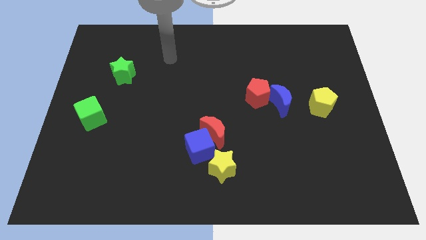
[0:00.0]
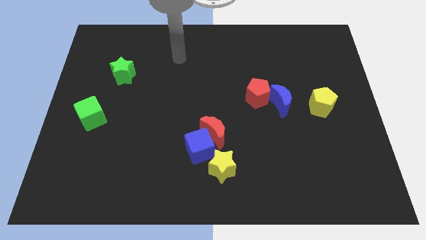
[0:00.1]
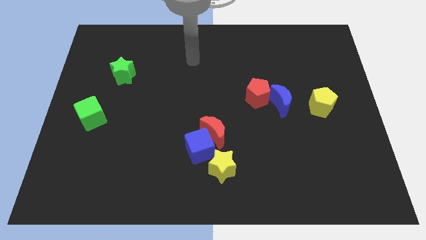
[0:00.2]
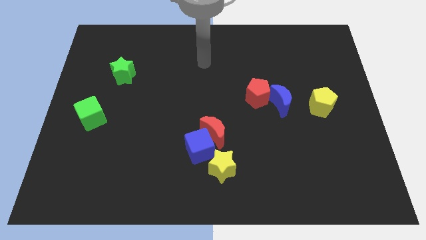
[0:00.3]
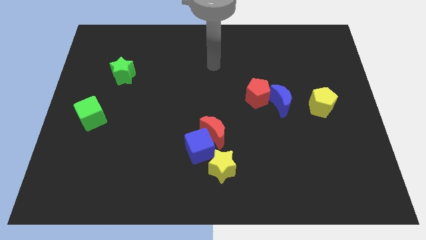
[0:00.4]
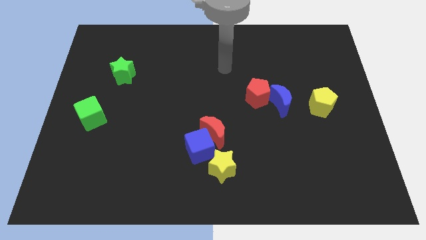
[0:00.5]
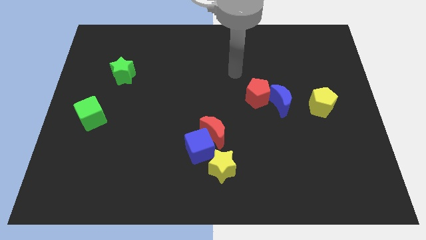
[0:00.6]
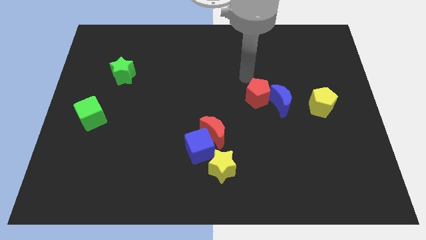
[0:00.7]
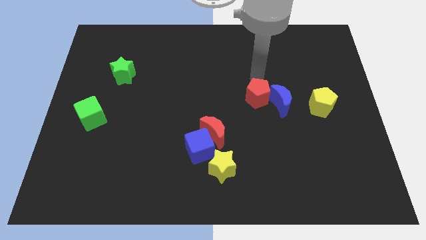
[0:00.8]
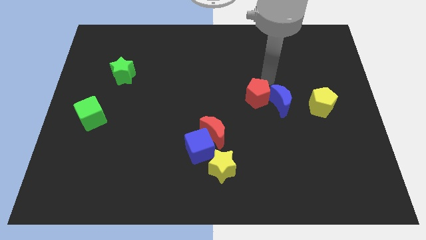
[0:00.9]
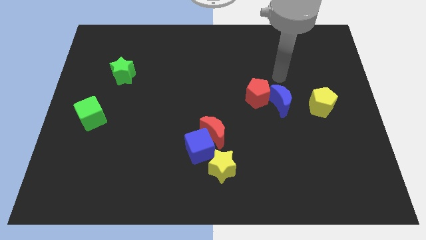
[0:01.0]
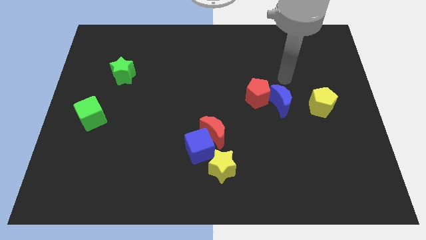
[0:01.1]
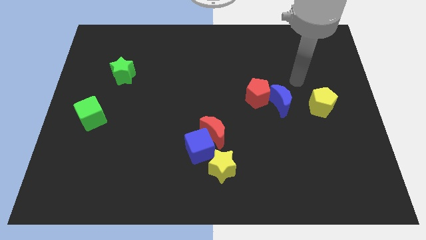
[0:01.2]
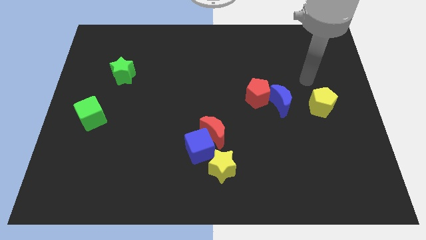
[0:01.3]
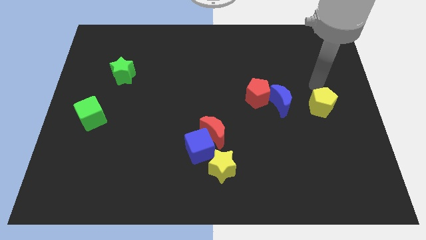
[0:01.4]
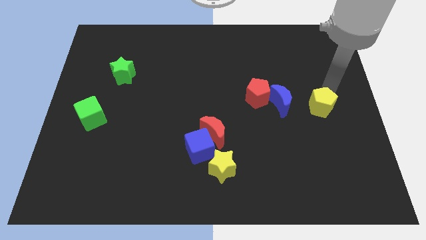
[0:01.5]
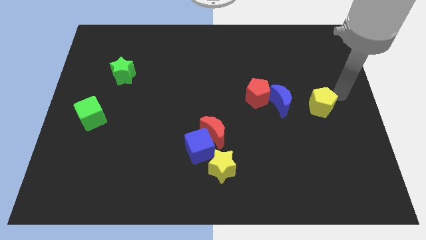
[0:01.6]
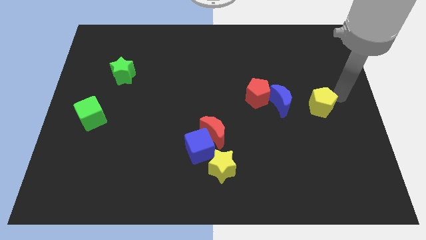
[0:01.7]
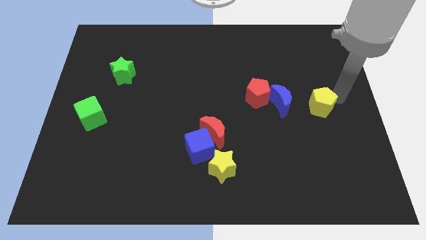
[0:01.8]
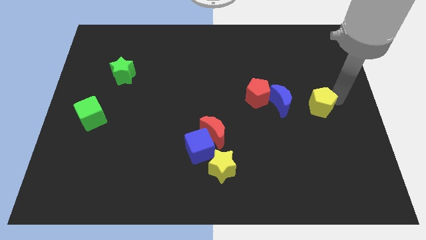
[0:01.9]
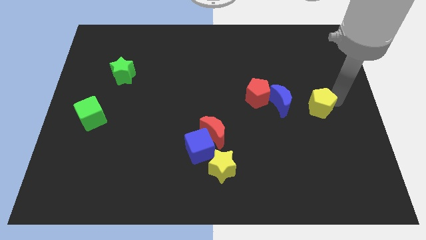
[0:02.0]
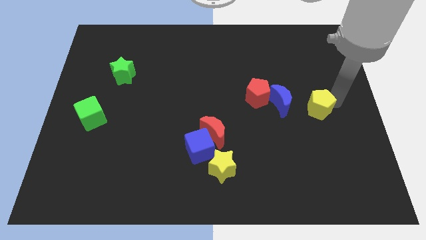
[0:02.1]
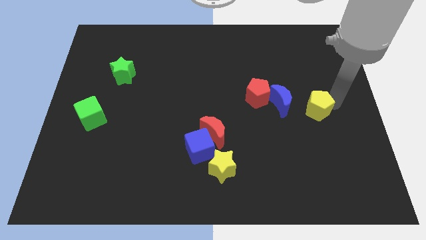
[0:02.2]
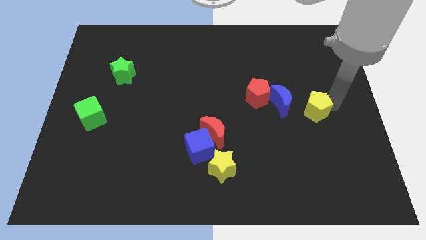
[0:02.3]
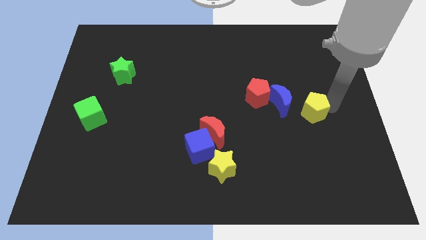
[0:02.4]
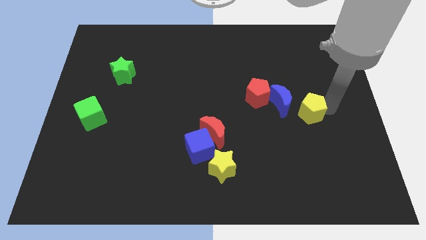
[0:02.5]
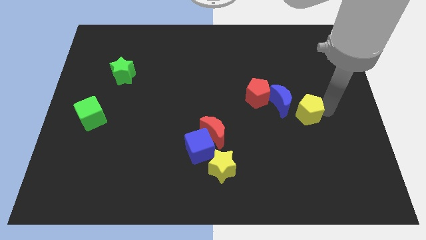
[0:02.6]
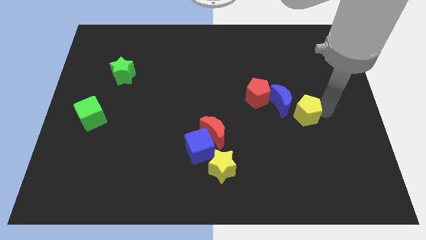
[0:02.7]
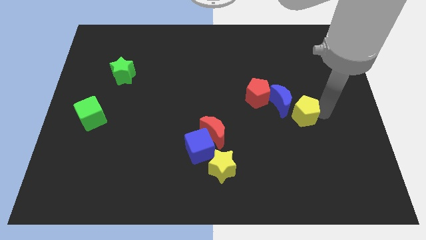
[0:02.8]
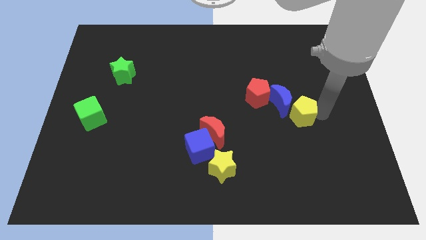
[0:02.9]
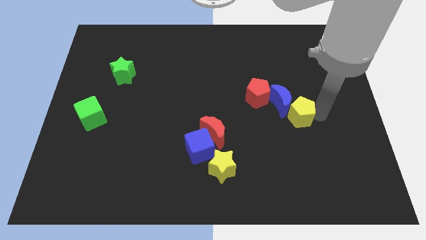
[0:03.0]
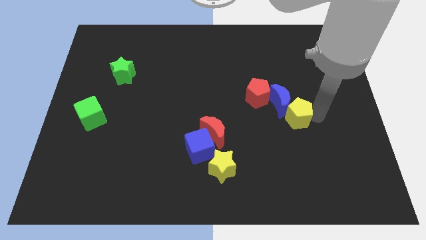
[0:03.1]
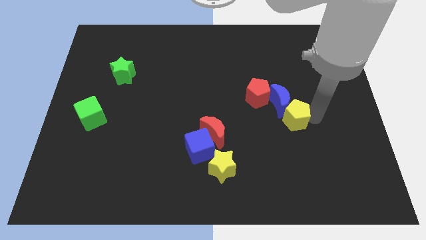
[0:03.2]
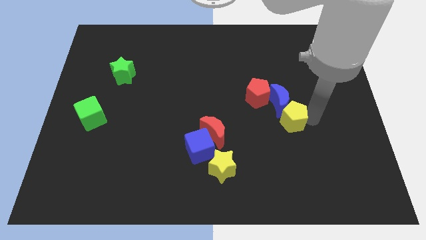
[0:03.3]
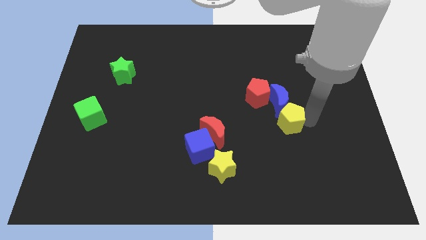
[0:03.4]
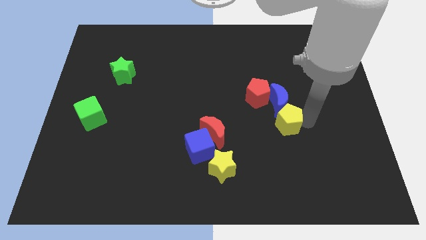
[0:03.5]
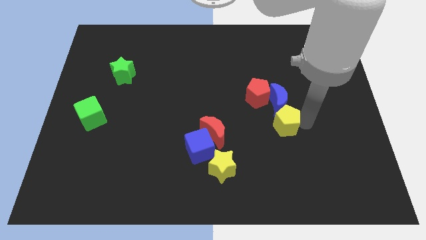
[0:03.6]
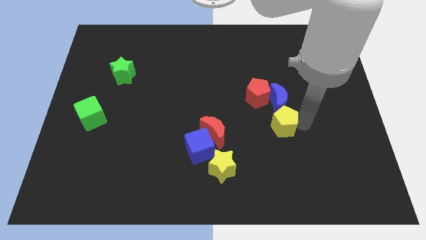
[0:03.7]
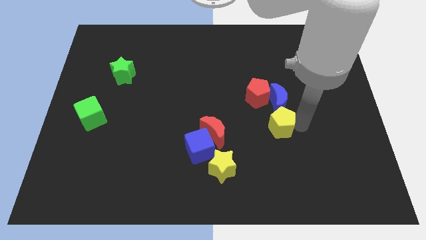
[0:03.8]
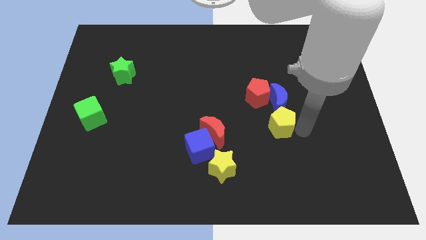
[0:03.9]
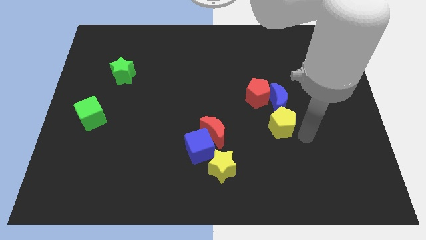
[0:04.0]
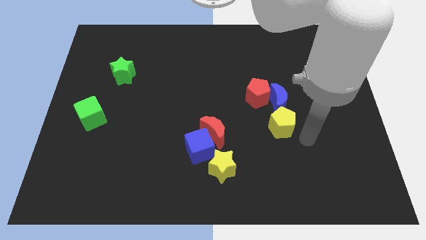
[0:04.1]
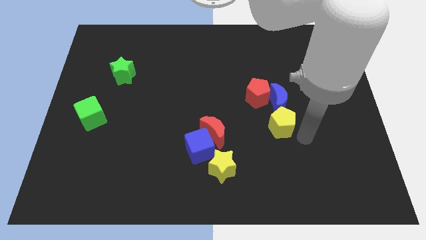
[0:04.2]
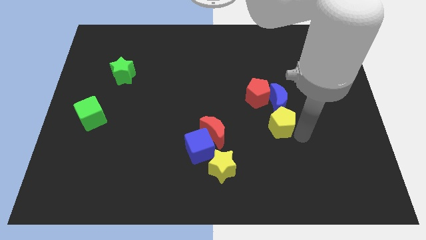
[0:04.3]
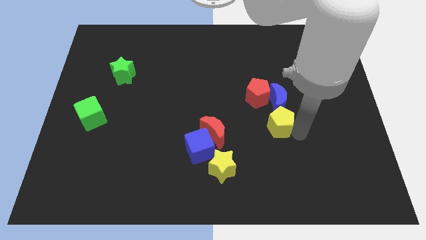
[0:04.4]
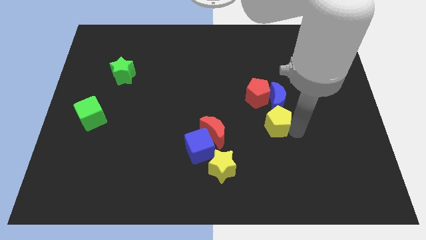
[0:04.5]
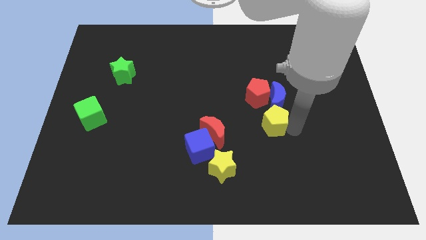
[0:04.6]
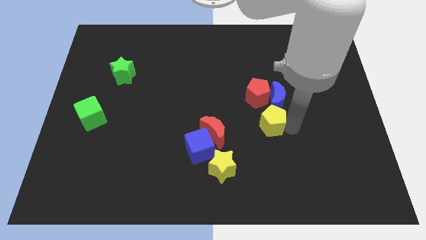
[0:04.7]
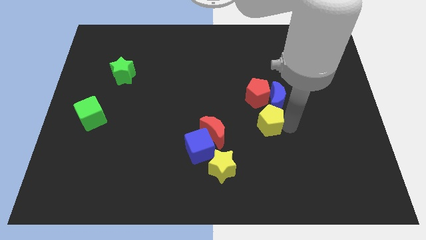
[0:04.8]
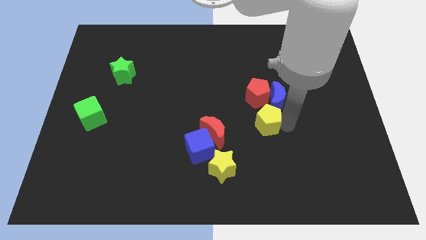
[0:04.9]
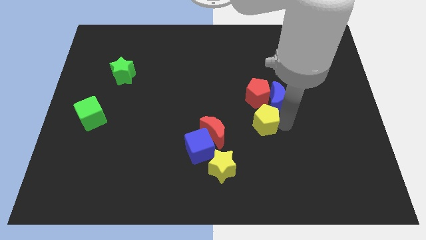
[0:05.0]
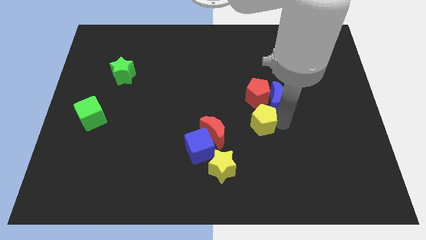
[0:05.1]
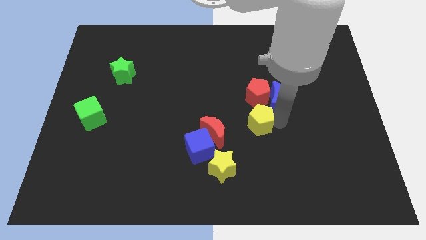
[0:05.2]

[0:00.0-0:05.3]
put the yellow pentagon to the center

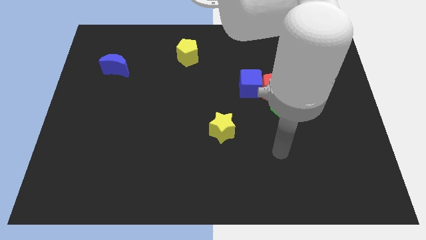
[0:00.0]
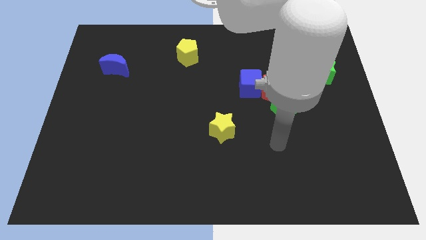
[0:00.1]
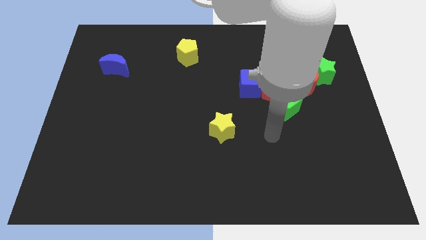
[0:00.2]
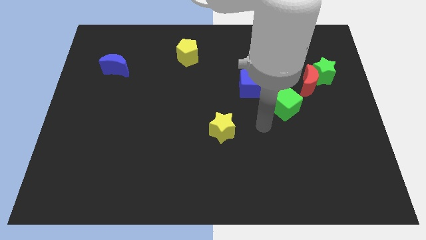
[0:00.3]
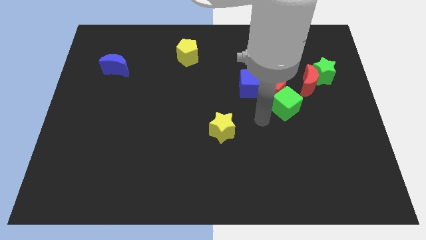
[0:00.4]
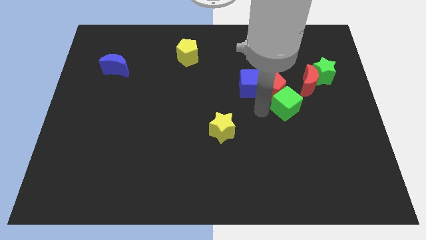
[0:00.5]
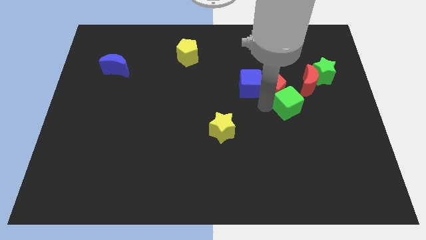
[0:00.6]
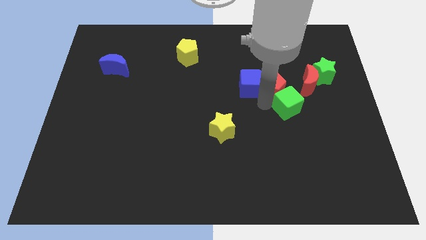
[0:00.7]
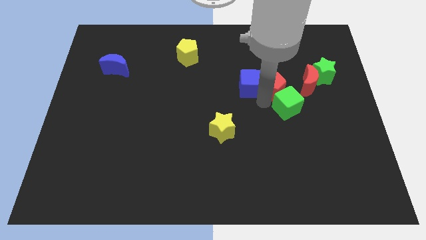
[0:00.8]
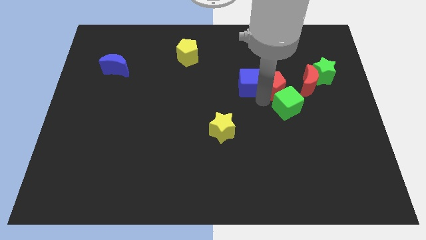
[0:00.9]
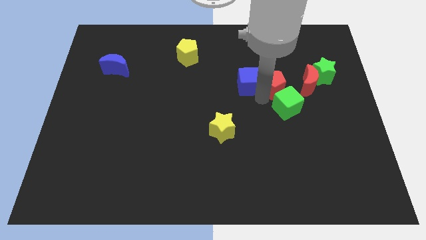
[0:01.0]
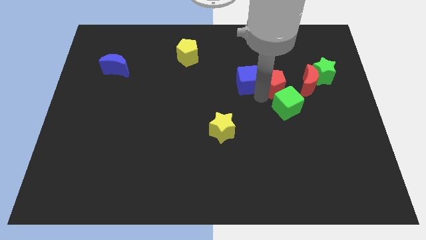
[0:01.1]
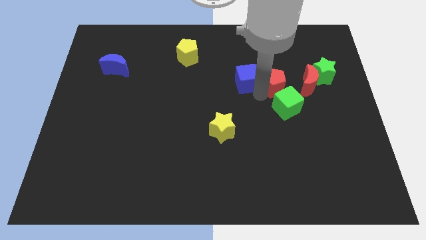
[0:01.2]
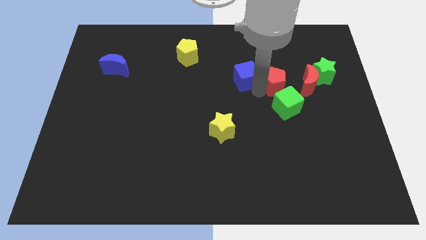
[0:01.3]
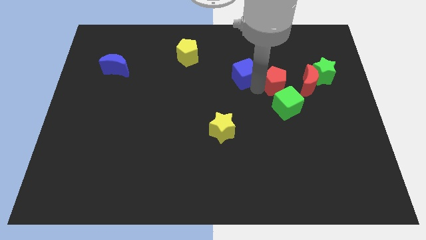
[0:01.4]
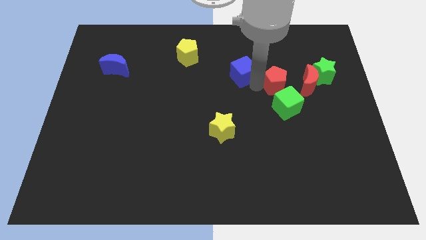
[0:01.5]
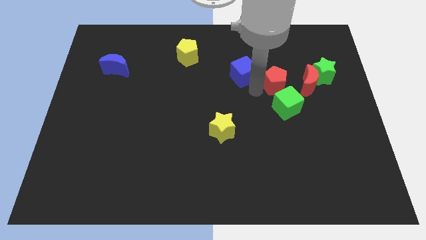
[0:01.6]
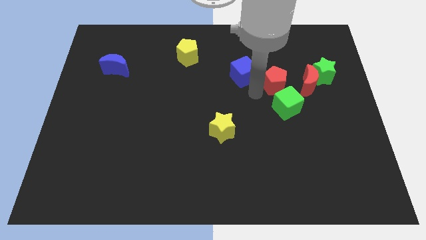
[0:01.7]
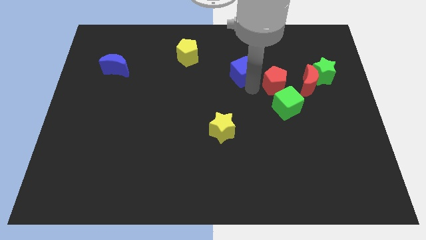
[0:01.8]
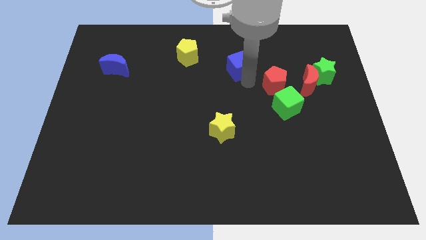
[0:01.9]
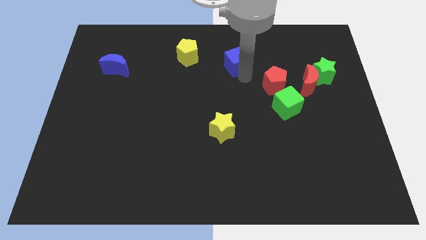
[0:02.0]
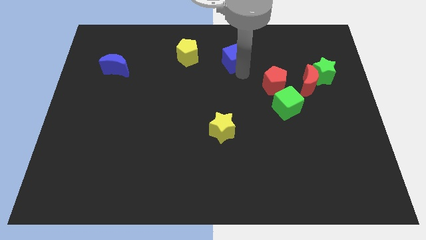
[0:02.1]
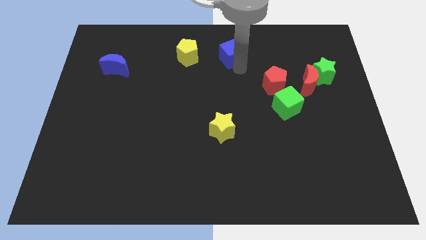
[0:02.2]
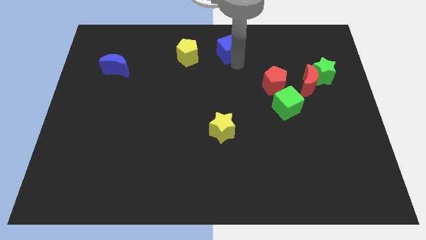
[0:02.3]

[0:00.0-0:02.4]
slide the blue cube to the top side
